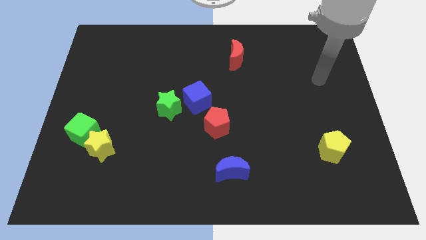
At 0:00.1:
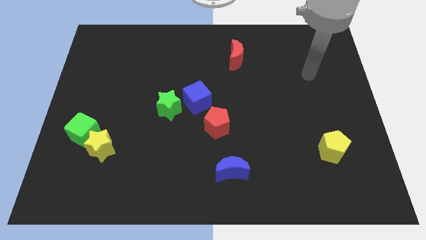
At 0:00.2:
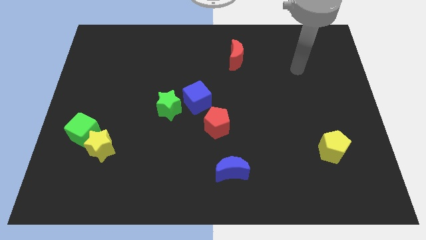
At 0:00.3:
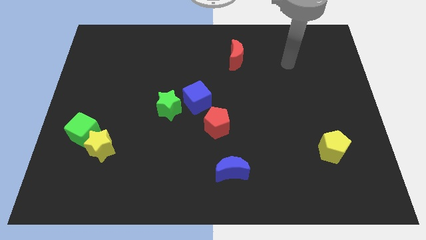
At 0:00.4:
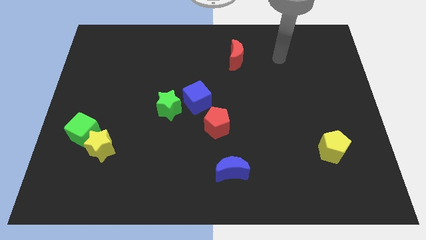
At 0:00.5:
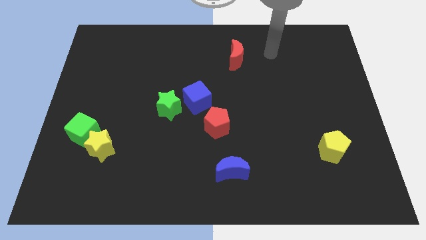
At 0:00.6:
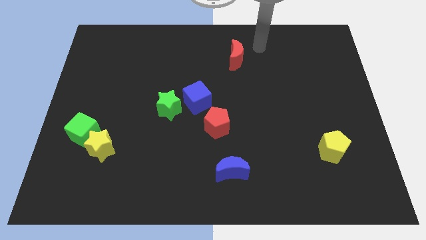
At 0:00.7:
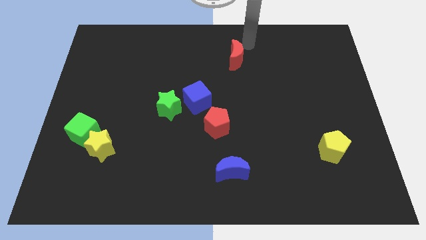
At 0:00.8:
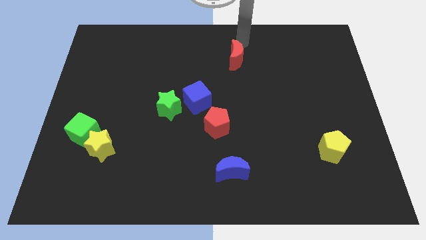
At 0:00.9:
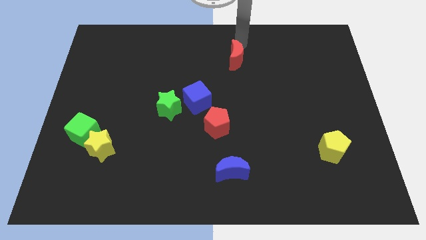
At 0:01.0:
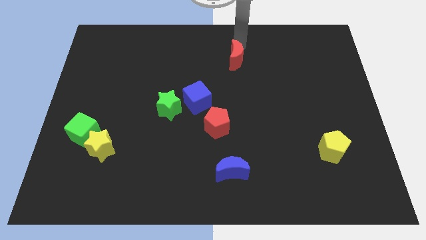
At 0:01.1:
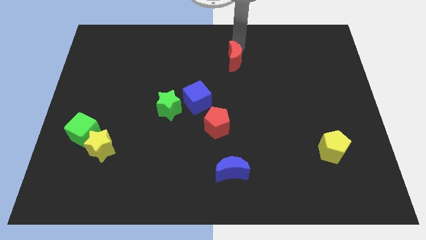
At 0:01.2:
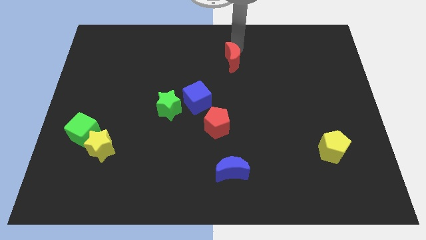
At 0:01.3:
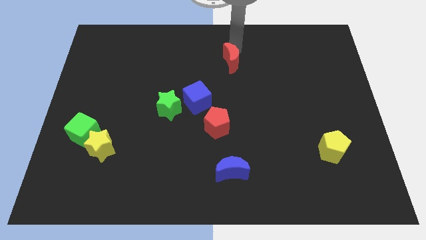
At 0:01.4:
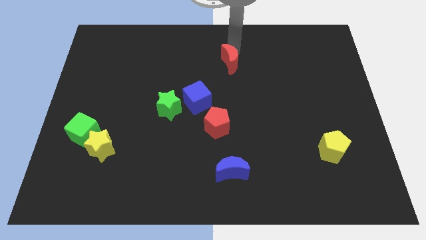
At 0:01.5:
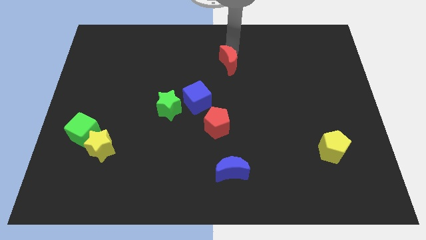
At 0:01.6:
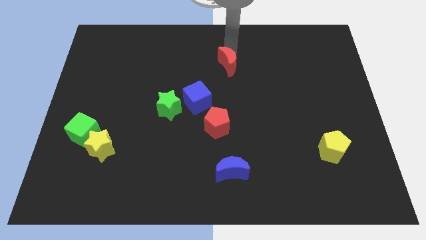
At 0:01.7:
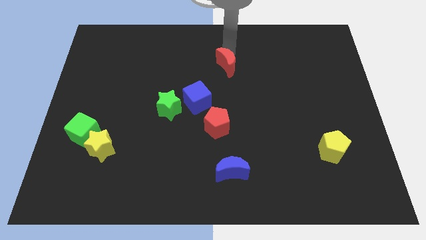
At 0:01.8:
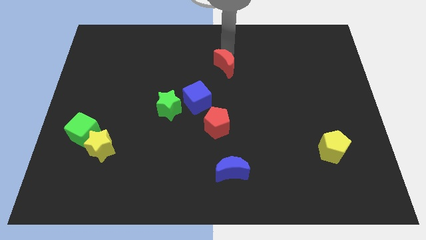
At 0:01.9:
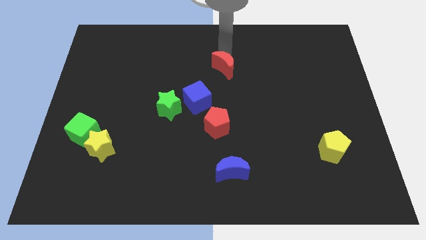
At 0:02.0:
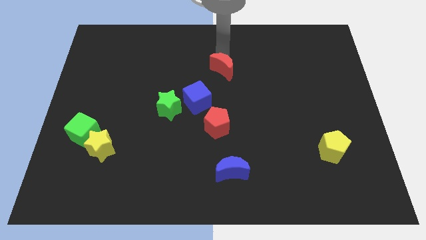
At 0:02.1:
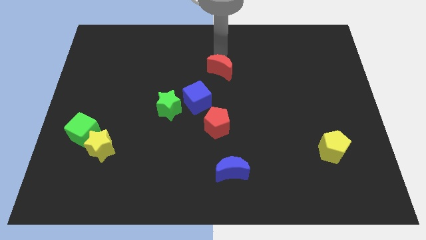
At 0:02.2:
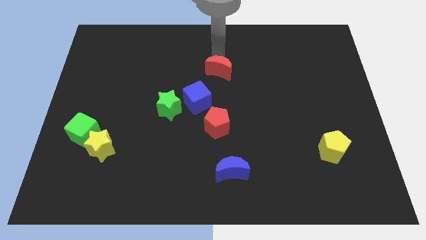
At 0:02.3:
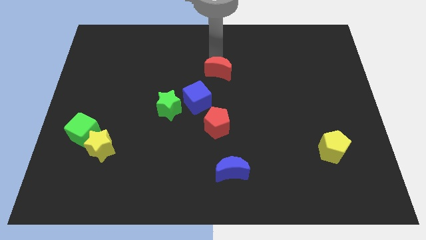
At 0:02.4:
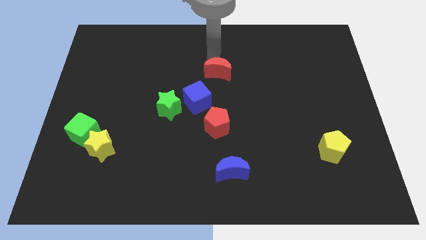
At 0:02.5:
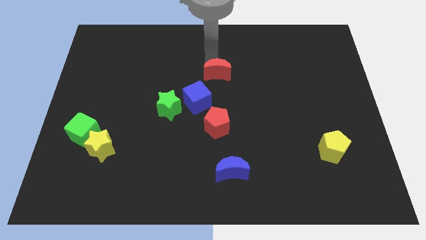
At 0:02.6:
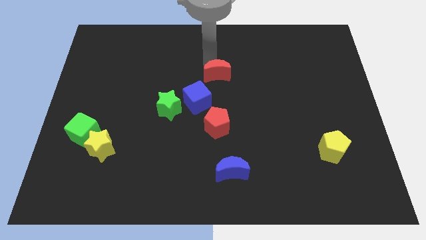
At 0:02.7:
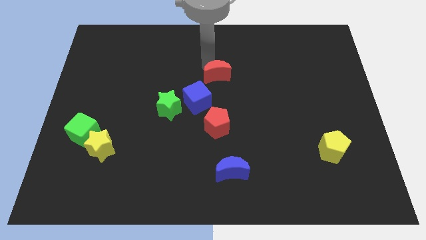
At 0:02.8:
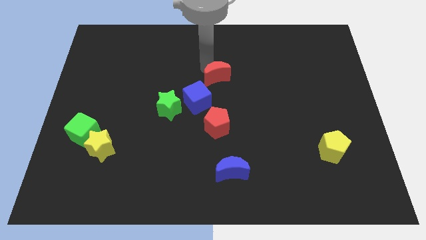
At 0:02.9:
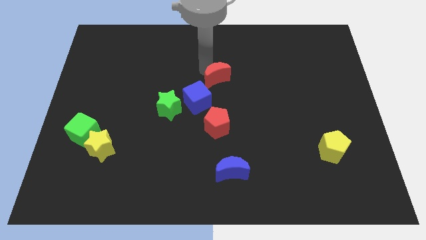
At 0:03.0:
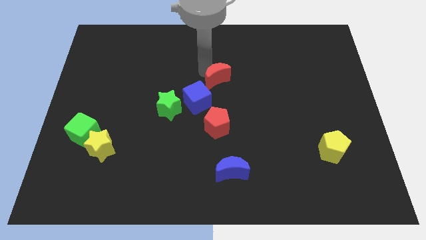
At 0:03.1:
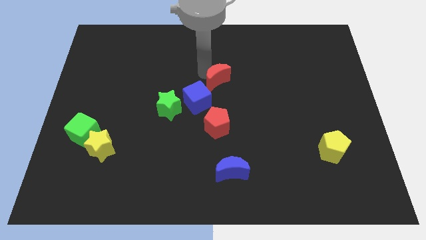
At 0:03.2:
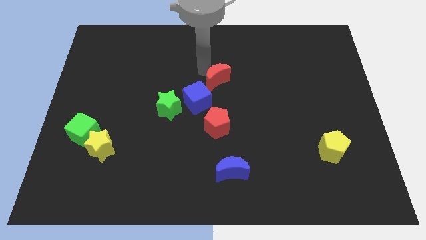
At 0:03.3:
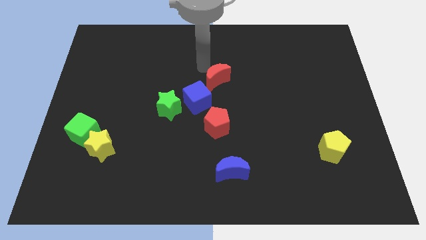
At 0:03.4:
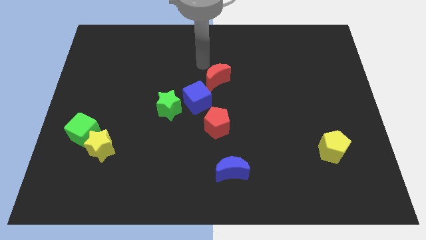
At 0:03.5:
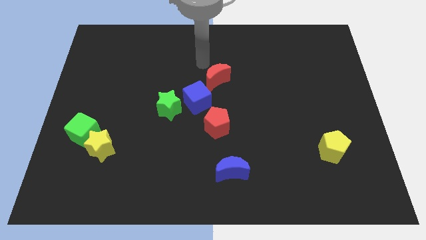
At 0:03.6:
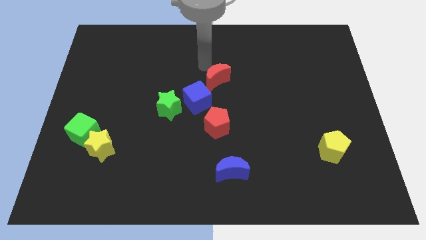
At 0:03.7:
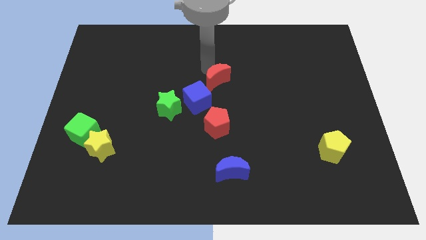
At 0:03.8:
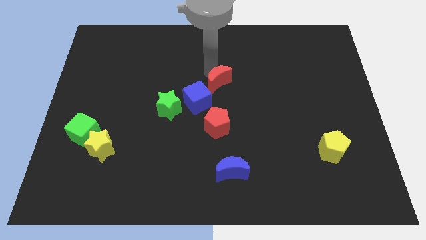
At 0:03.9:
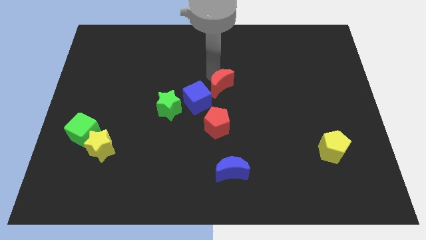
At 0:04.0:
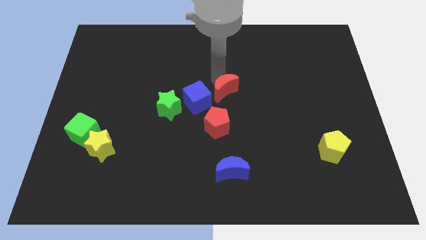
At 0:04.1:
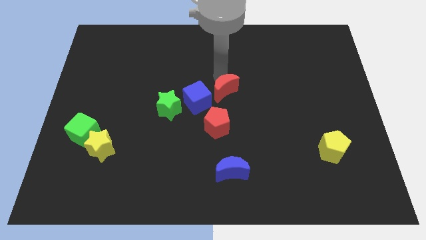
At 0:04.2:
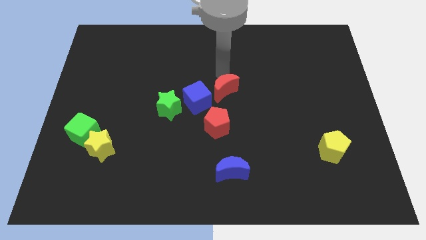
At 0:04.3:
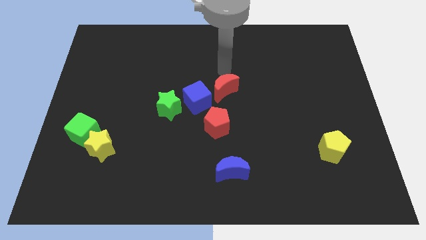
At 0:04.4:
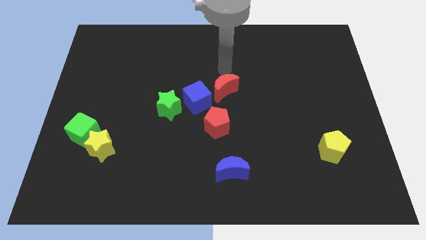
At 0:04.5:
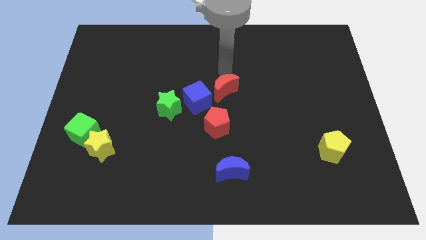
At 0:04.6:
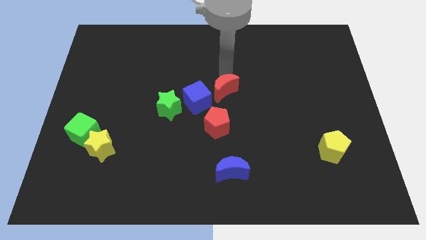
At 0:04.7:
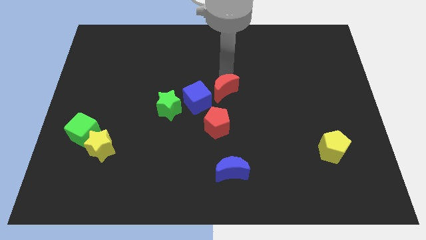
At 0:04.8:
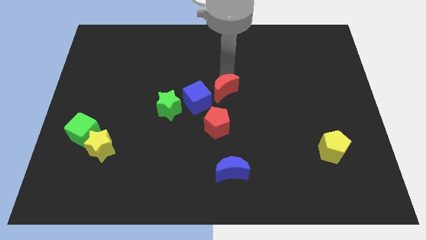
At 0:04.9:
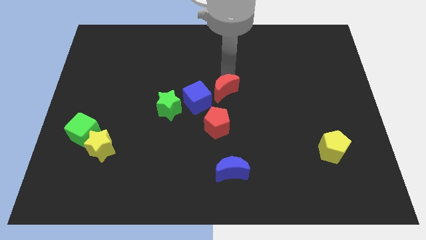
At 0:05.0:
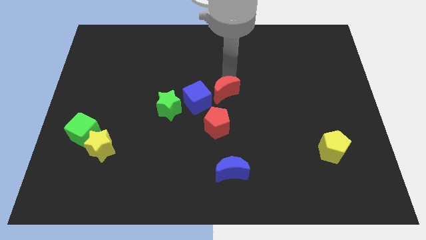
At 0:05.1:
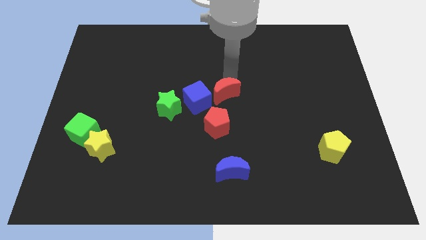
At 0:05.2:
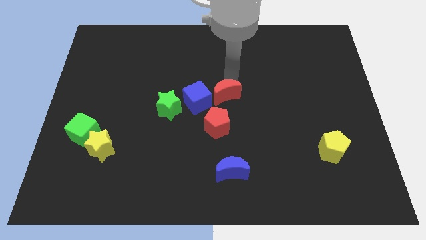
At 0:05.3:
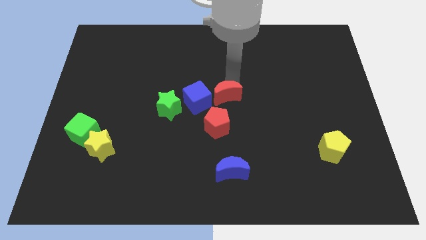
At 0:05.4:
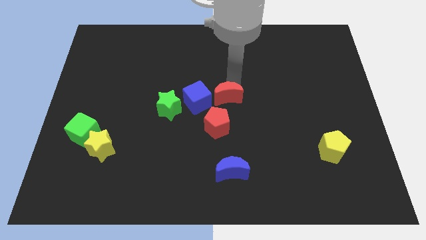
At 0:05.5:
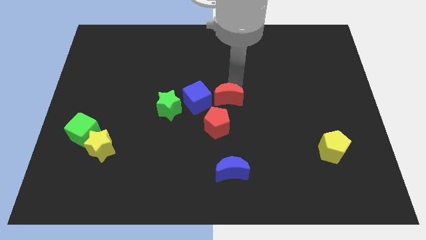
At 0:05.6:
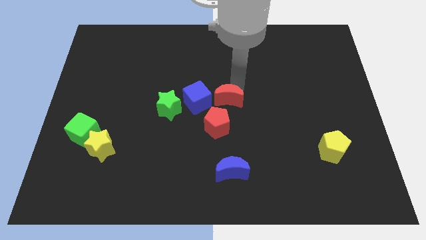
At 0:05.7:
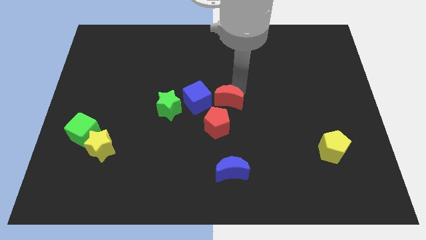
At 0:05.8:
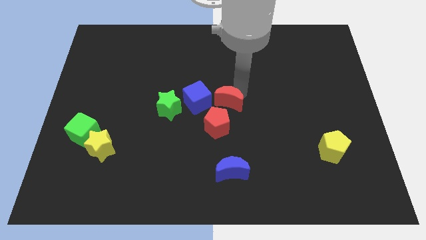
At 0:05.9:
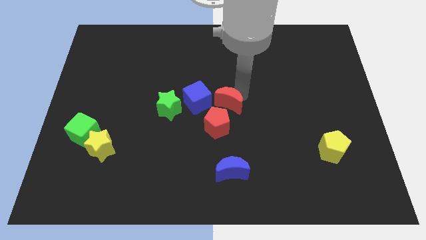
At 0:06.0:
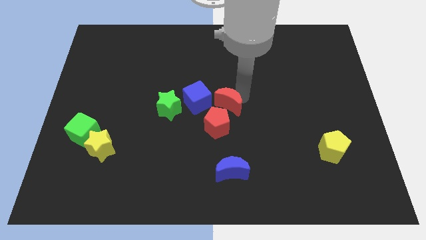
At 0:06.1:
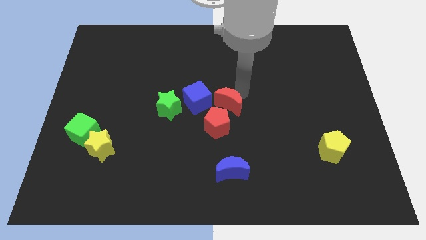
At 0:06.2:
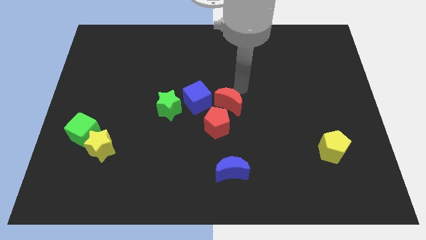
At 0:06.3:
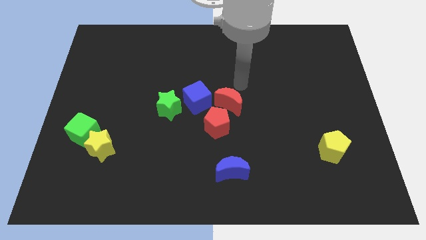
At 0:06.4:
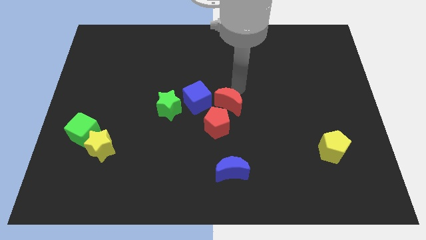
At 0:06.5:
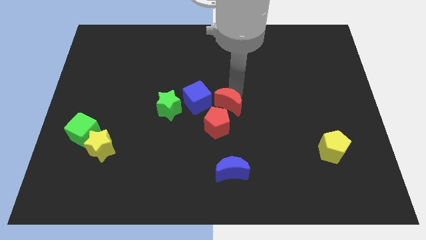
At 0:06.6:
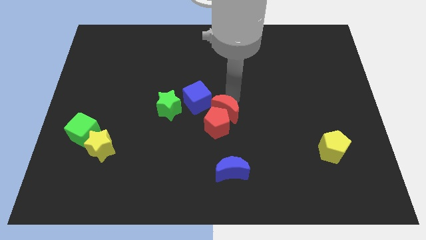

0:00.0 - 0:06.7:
push the red moon next to the red pentagon
